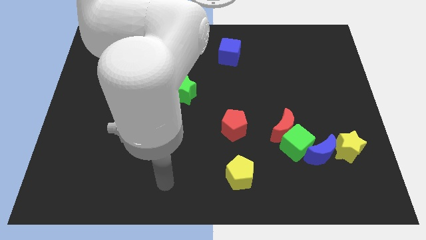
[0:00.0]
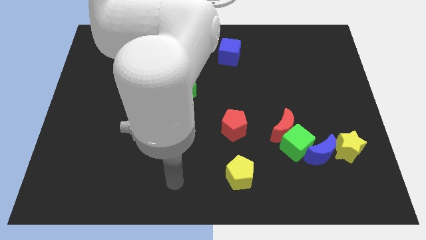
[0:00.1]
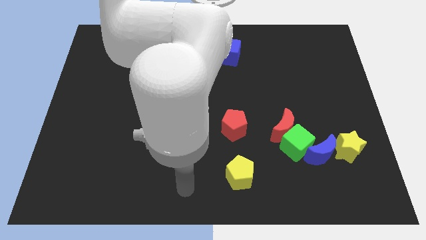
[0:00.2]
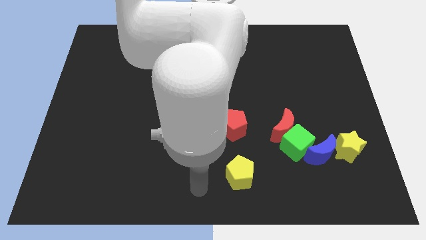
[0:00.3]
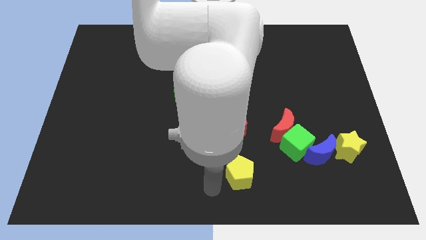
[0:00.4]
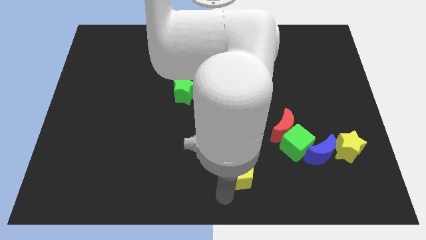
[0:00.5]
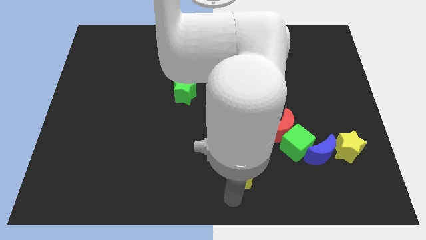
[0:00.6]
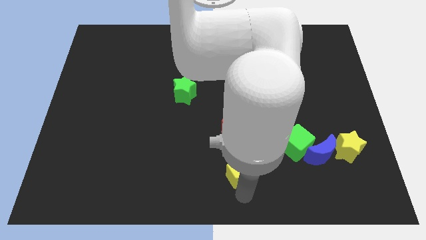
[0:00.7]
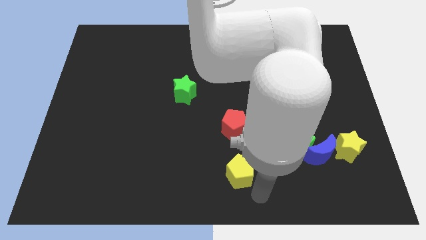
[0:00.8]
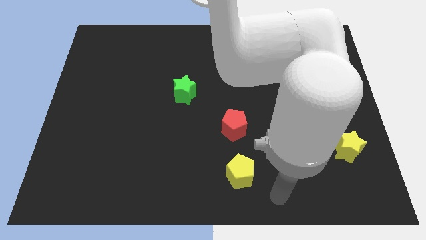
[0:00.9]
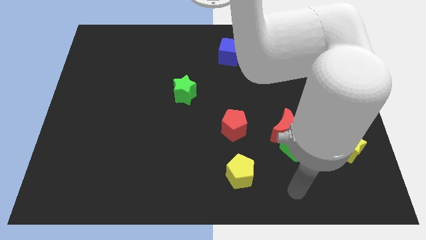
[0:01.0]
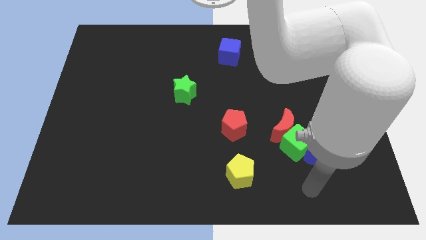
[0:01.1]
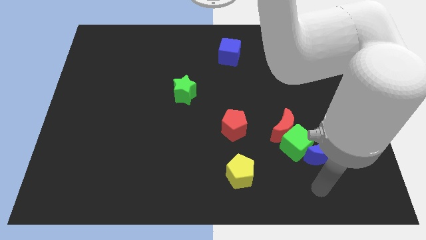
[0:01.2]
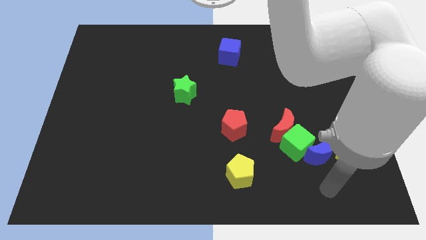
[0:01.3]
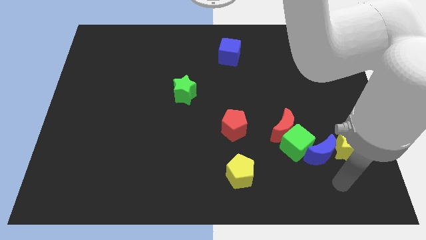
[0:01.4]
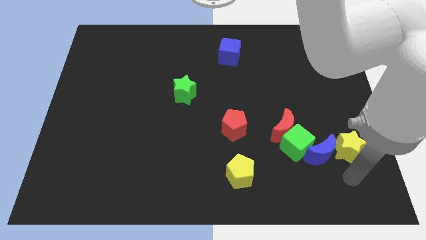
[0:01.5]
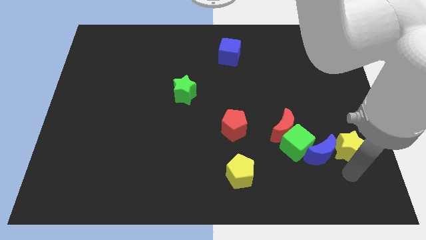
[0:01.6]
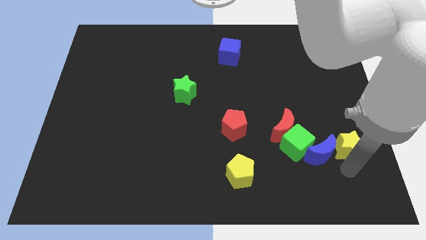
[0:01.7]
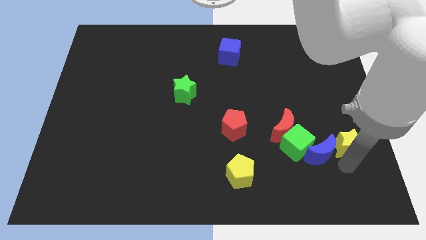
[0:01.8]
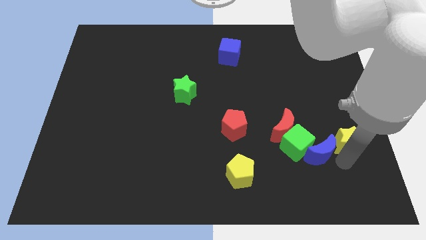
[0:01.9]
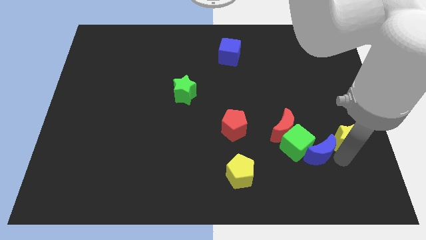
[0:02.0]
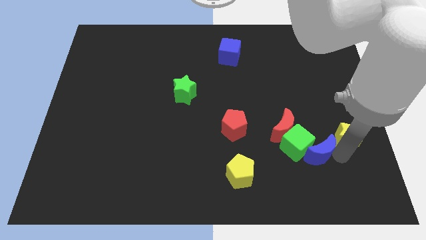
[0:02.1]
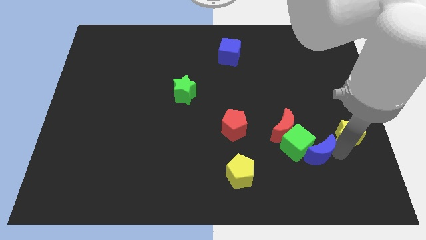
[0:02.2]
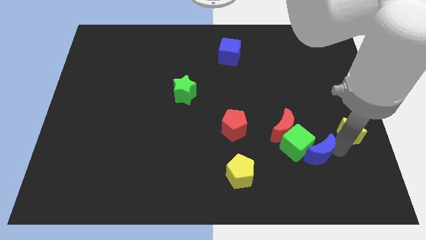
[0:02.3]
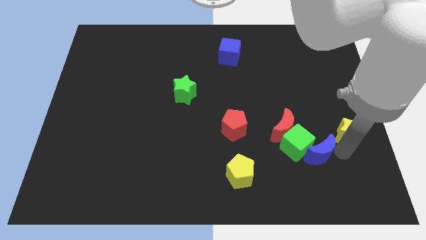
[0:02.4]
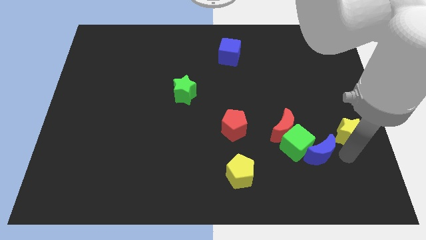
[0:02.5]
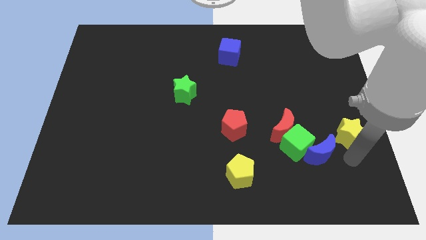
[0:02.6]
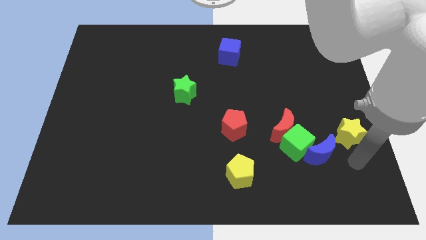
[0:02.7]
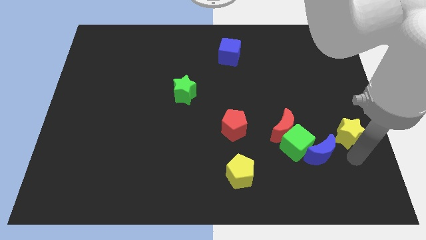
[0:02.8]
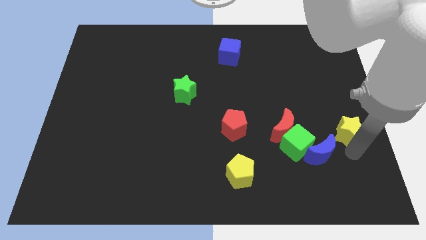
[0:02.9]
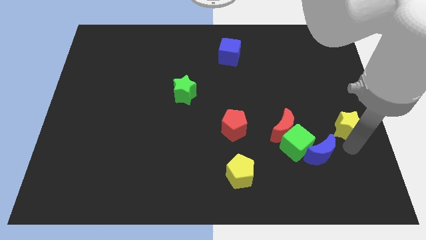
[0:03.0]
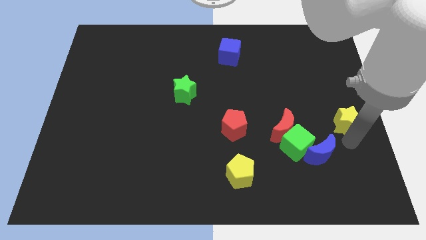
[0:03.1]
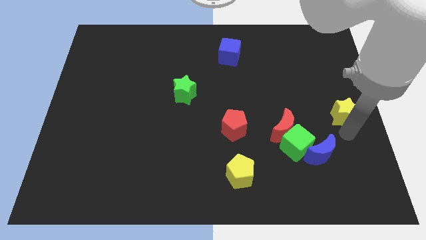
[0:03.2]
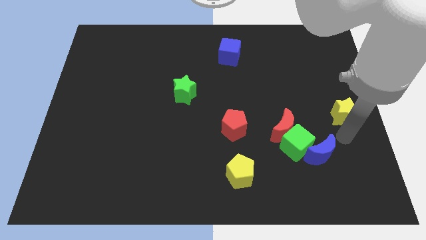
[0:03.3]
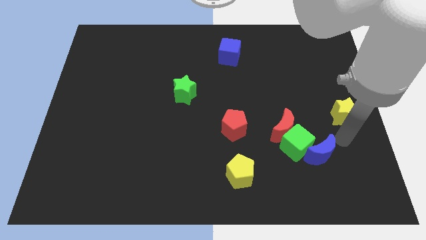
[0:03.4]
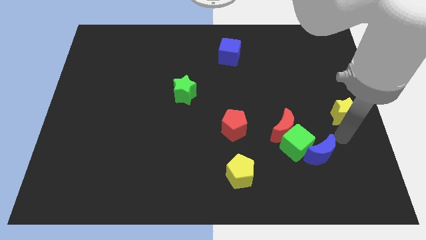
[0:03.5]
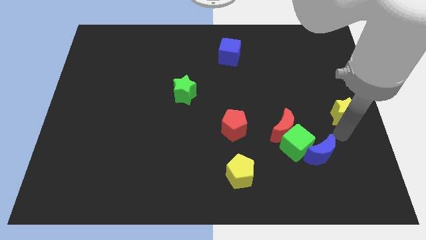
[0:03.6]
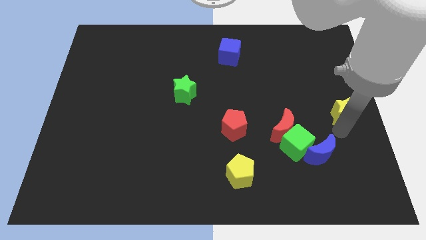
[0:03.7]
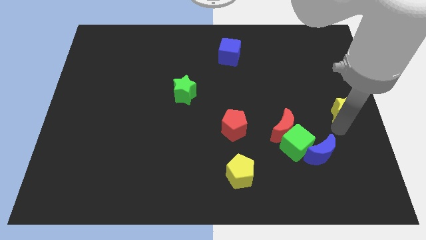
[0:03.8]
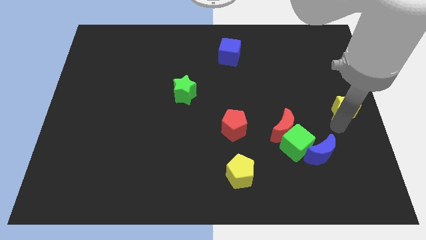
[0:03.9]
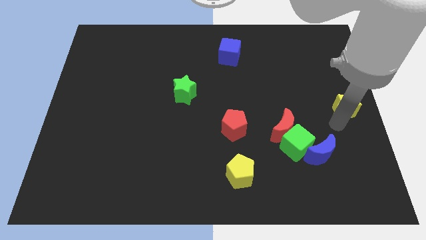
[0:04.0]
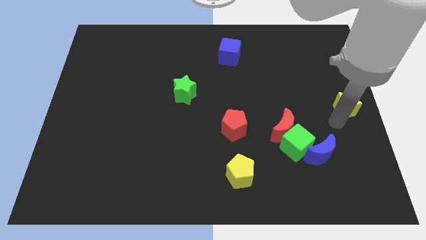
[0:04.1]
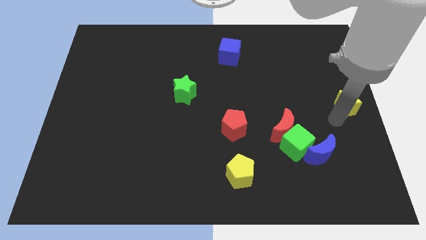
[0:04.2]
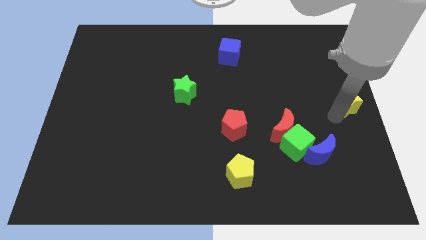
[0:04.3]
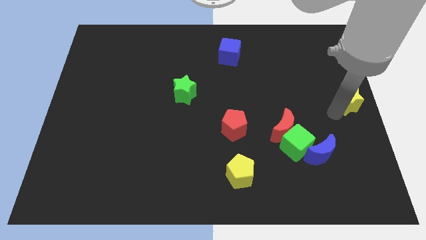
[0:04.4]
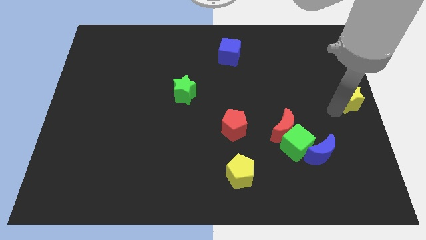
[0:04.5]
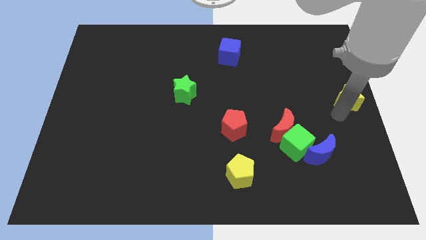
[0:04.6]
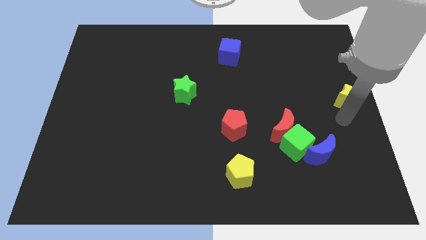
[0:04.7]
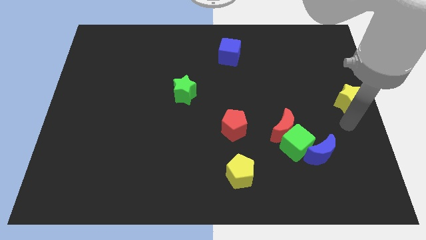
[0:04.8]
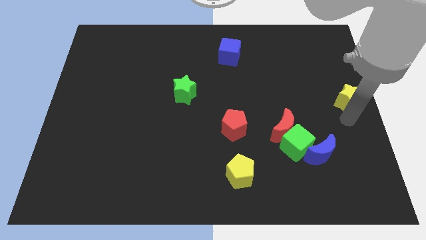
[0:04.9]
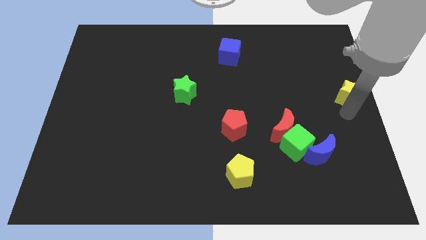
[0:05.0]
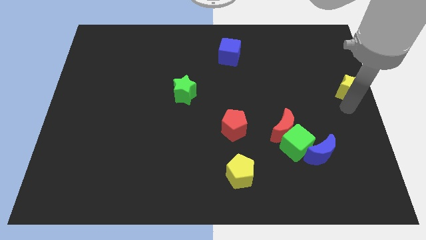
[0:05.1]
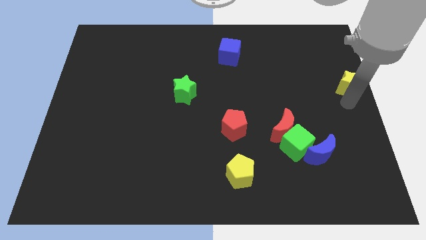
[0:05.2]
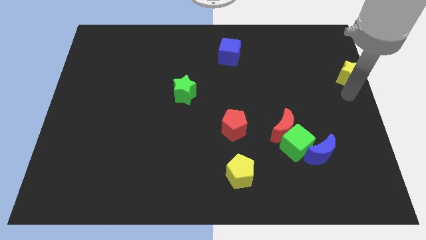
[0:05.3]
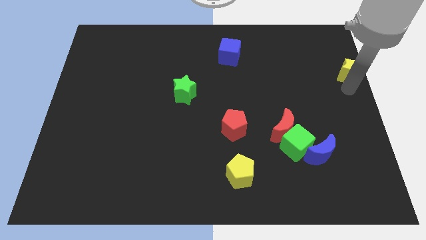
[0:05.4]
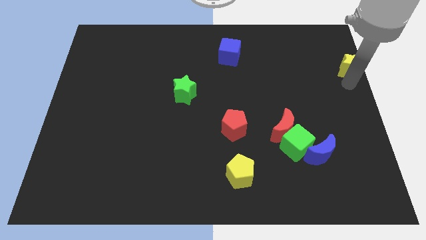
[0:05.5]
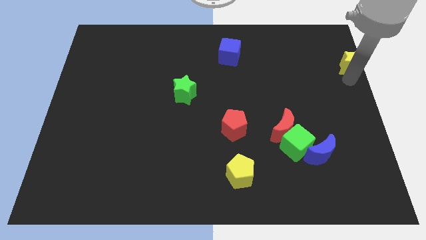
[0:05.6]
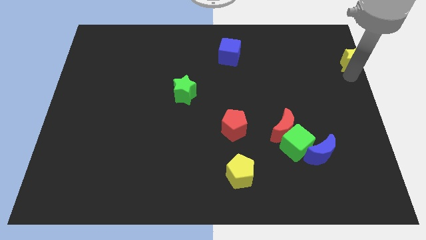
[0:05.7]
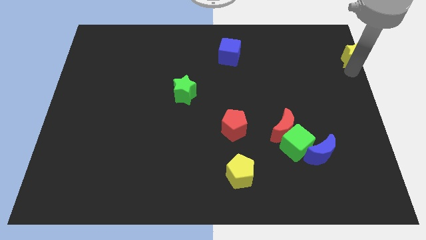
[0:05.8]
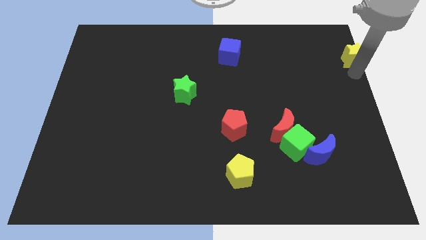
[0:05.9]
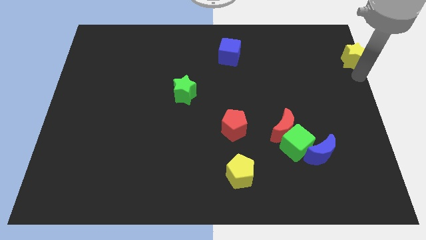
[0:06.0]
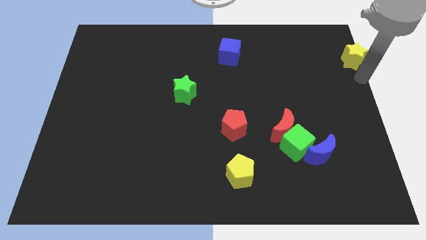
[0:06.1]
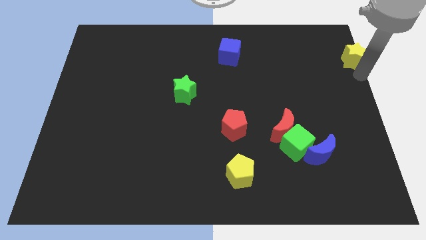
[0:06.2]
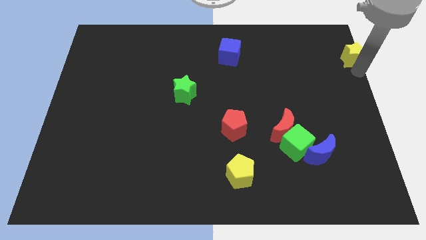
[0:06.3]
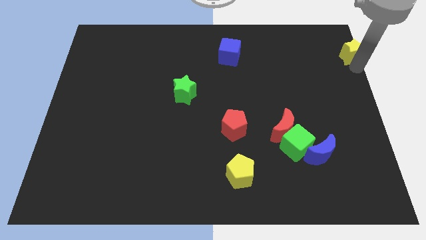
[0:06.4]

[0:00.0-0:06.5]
move the yellow star to the top right

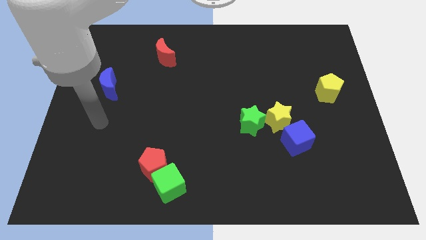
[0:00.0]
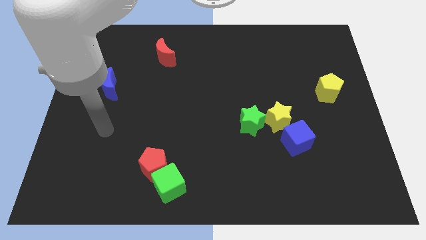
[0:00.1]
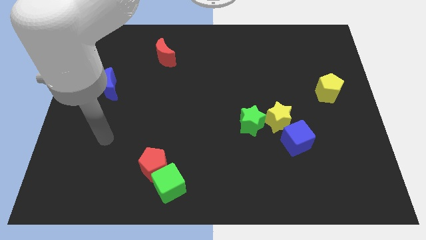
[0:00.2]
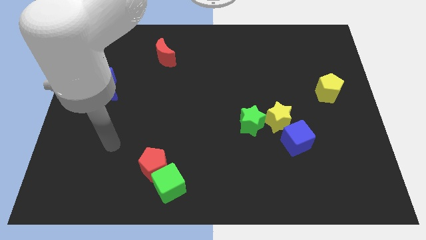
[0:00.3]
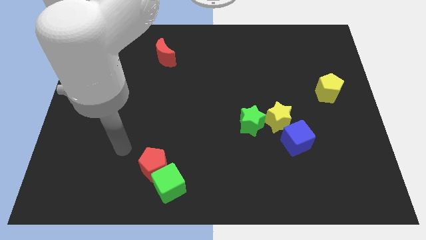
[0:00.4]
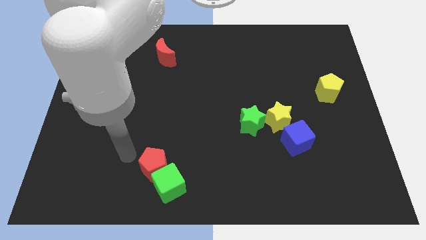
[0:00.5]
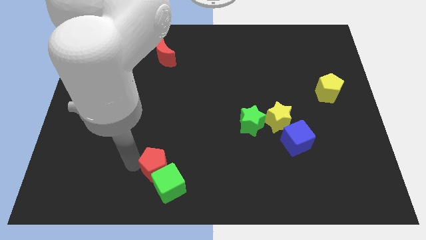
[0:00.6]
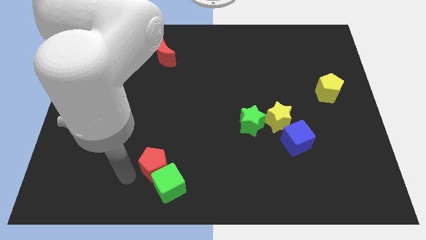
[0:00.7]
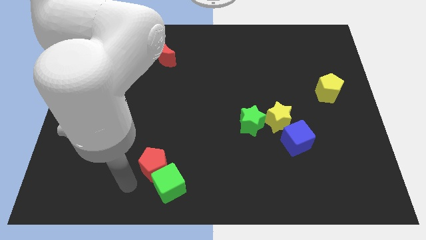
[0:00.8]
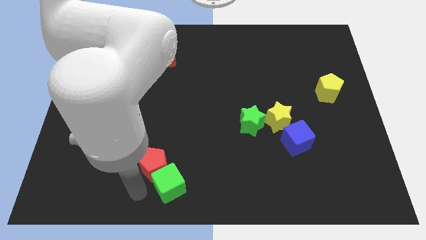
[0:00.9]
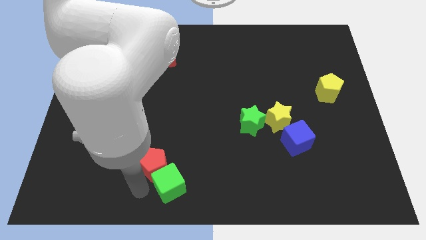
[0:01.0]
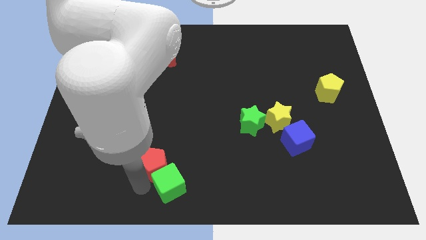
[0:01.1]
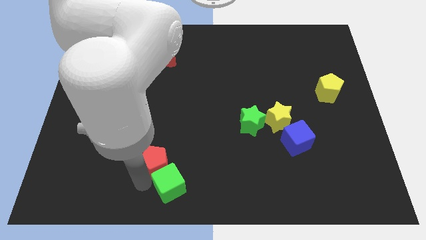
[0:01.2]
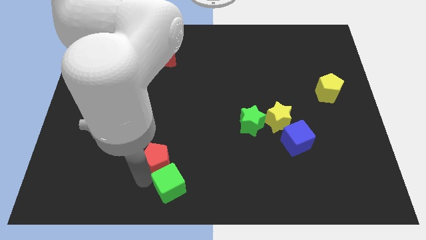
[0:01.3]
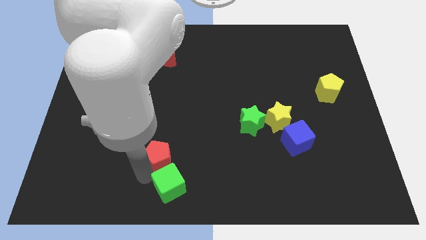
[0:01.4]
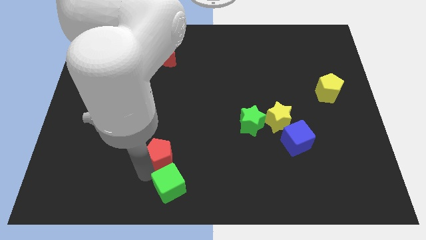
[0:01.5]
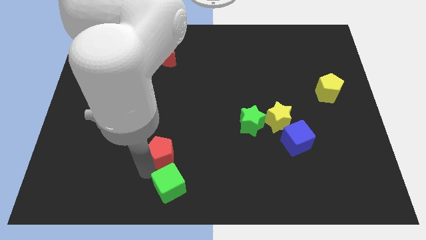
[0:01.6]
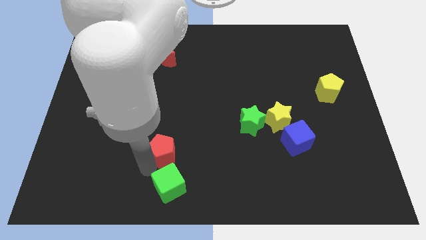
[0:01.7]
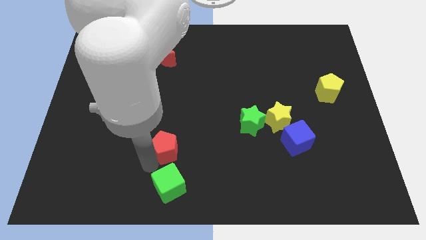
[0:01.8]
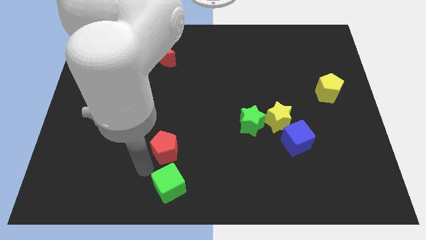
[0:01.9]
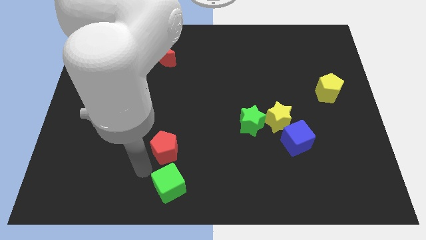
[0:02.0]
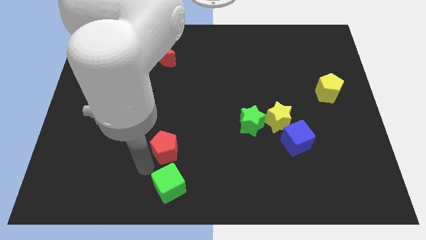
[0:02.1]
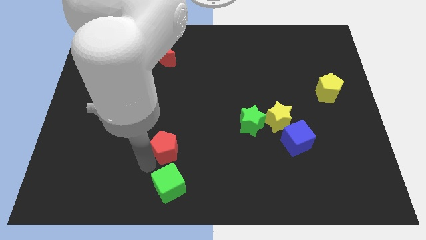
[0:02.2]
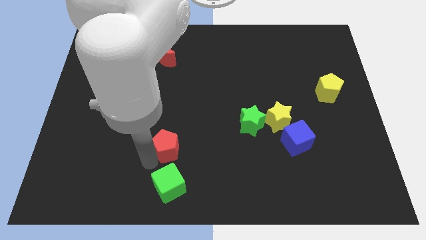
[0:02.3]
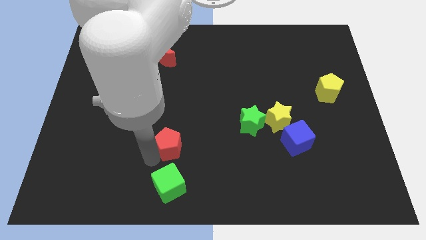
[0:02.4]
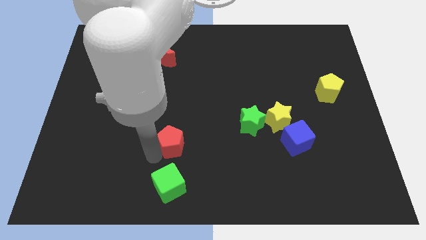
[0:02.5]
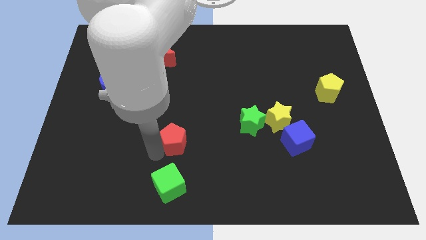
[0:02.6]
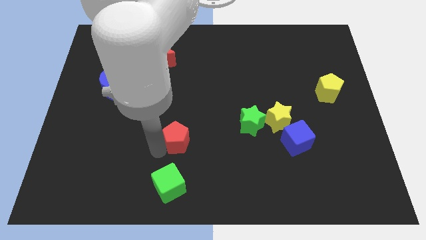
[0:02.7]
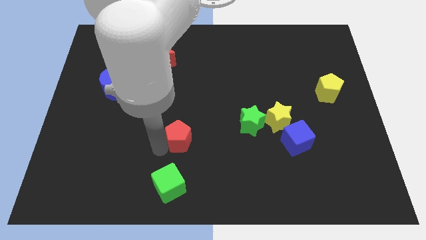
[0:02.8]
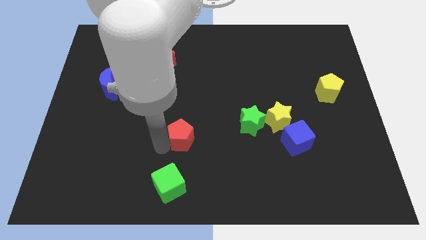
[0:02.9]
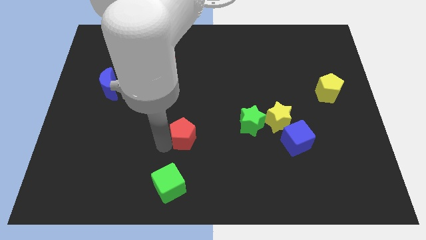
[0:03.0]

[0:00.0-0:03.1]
slide the red pentagon to the middle
